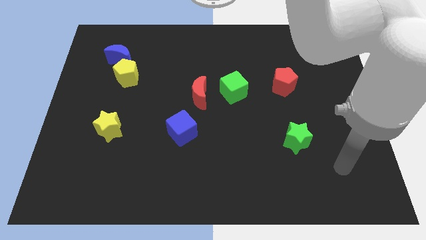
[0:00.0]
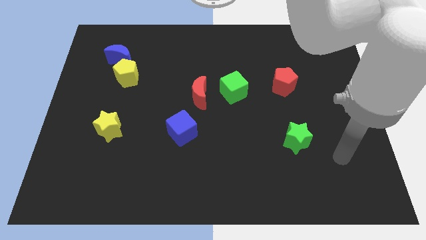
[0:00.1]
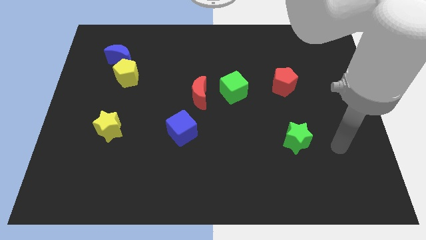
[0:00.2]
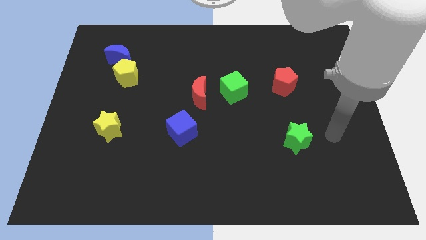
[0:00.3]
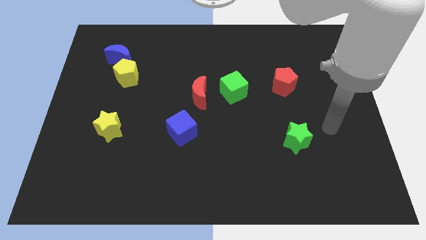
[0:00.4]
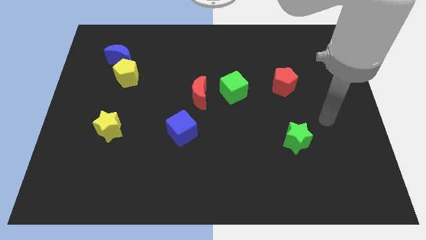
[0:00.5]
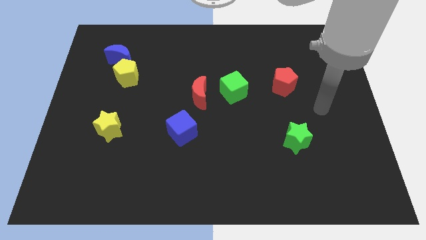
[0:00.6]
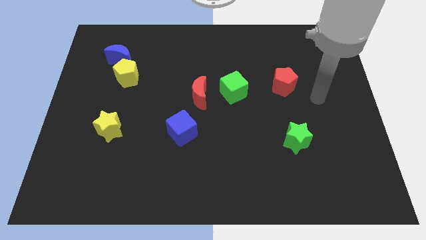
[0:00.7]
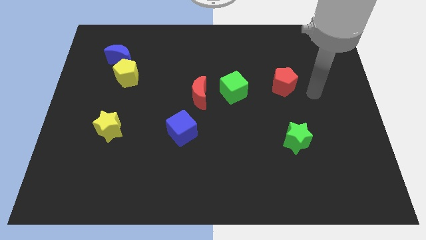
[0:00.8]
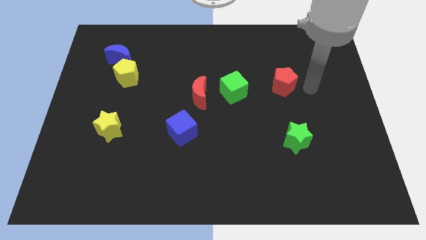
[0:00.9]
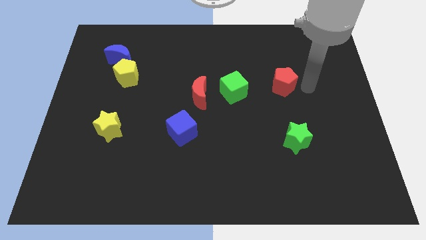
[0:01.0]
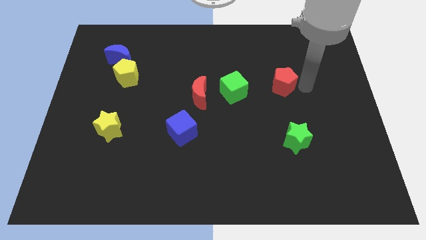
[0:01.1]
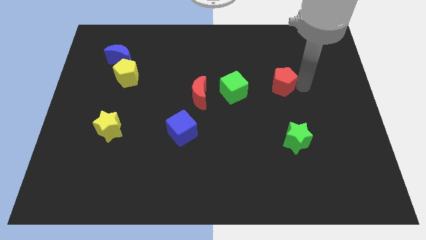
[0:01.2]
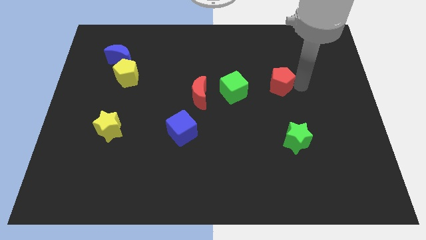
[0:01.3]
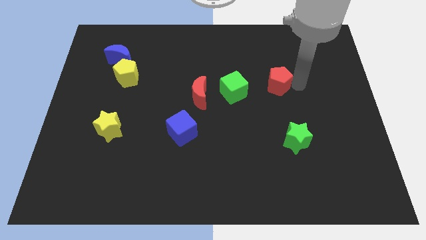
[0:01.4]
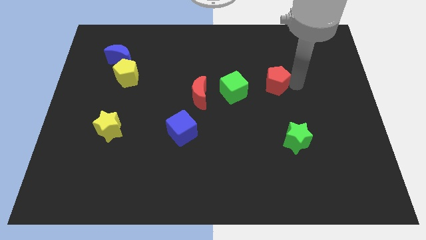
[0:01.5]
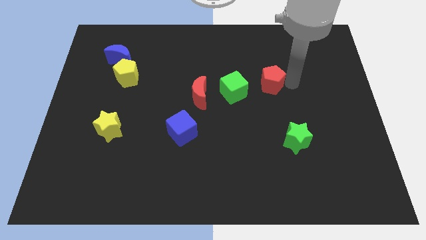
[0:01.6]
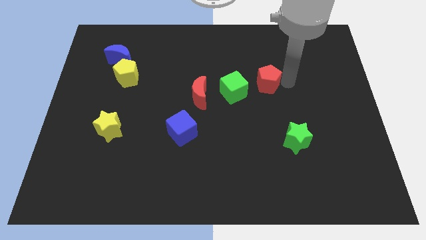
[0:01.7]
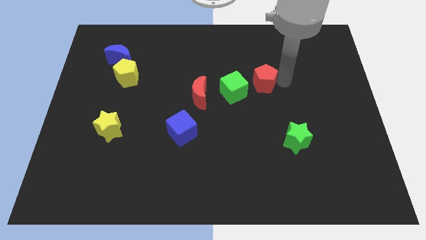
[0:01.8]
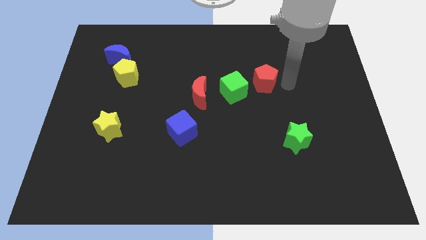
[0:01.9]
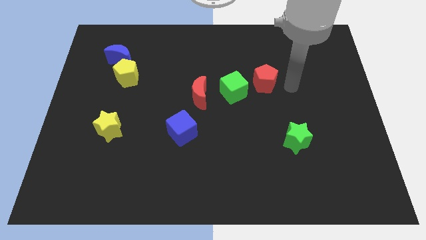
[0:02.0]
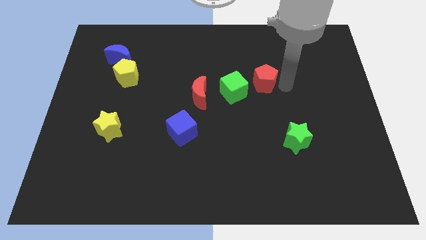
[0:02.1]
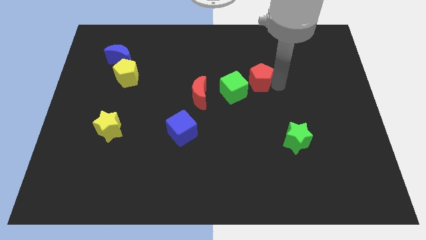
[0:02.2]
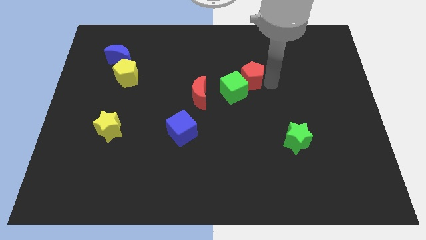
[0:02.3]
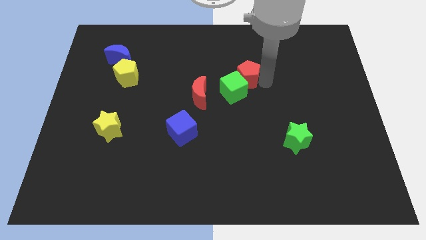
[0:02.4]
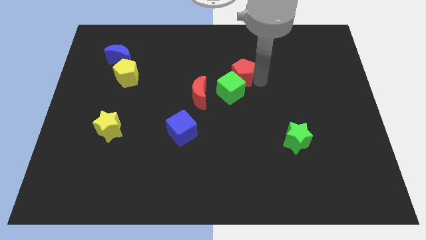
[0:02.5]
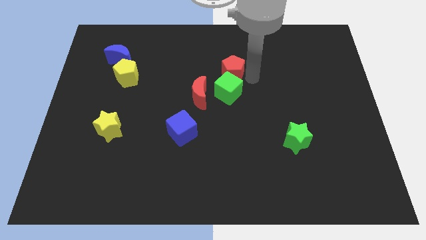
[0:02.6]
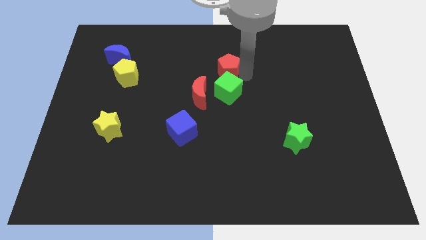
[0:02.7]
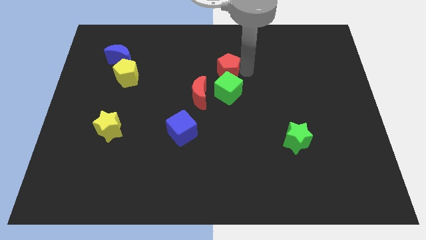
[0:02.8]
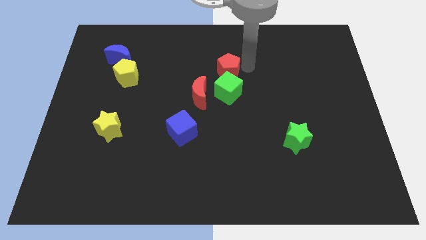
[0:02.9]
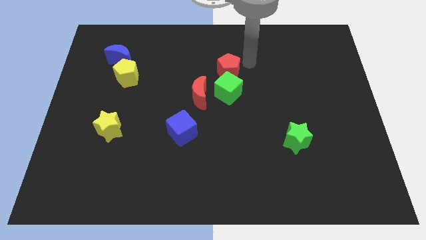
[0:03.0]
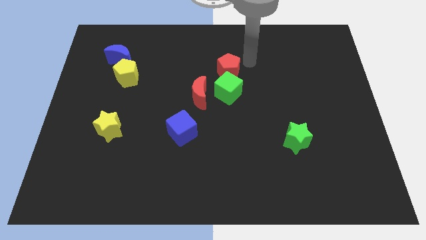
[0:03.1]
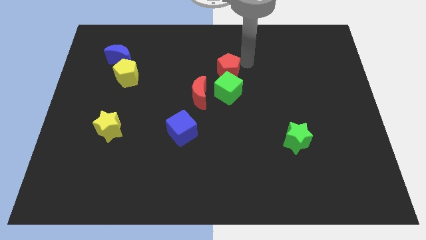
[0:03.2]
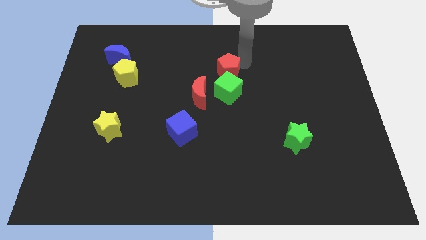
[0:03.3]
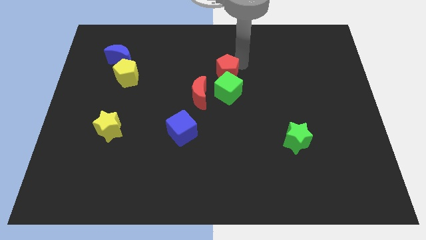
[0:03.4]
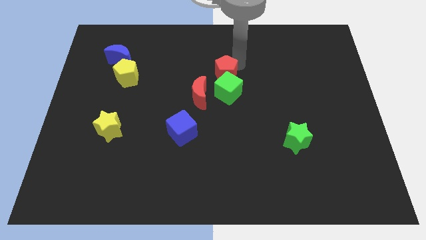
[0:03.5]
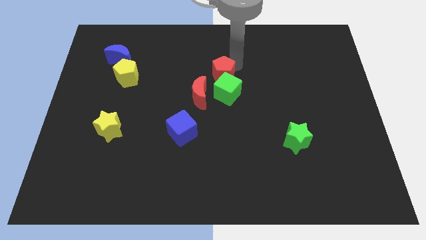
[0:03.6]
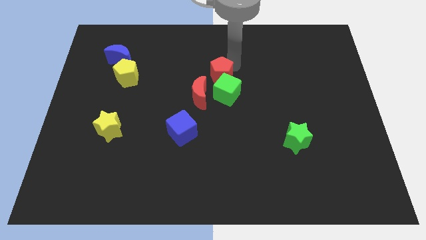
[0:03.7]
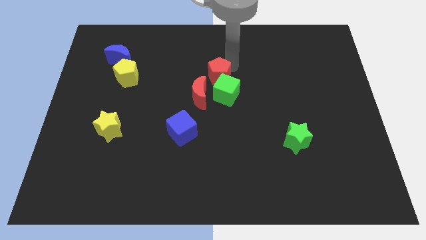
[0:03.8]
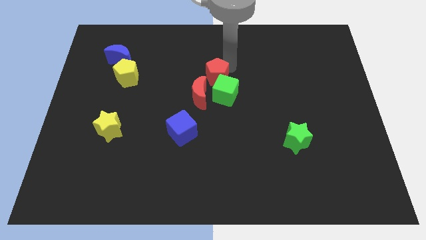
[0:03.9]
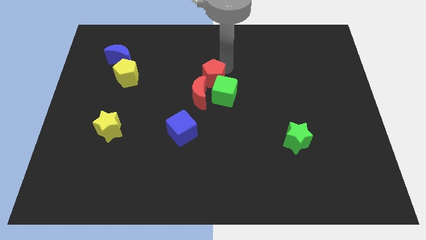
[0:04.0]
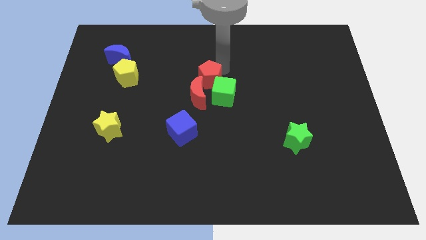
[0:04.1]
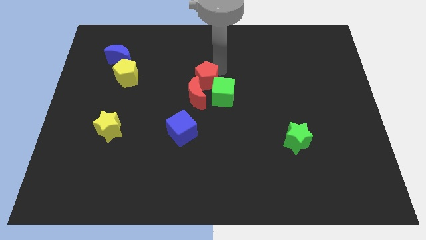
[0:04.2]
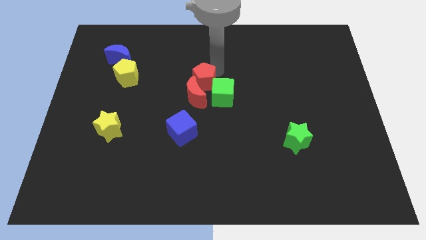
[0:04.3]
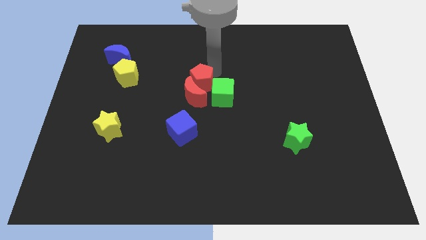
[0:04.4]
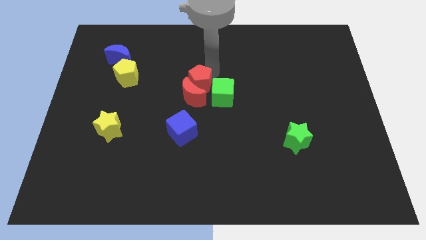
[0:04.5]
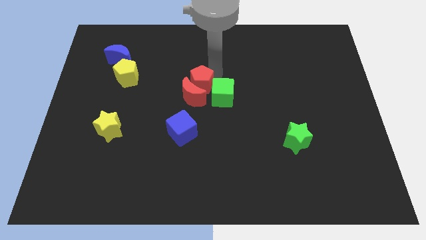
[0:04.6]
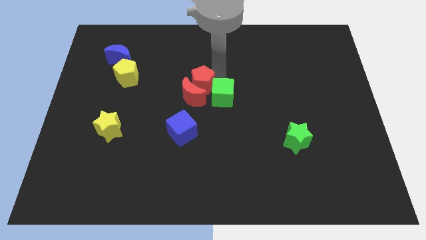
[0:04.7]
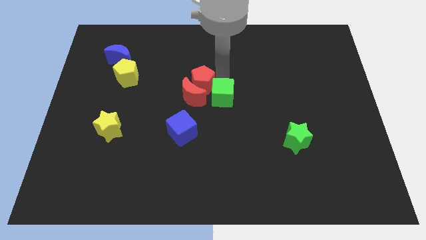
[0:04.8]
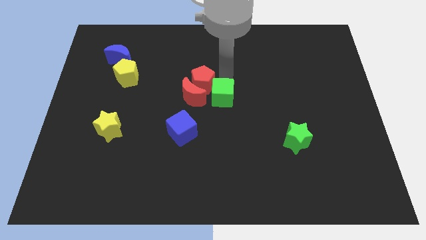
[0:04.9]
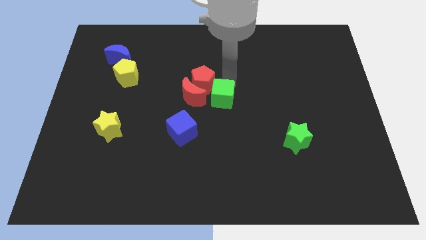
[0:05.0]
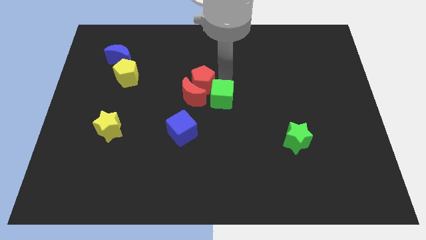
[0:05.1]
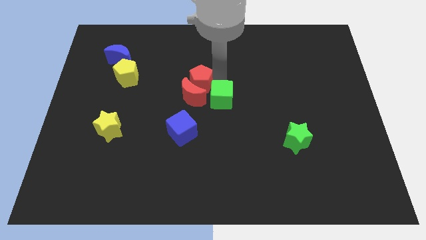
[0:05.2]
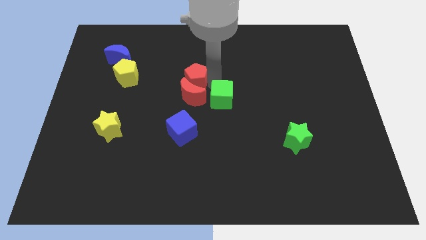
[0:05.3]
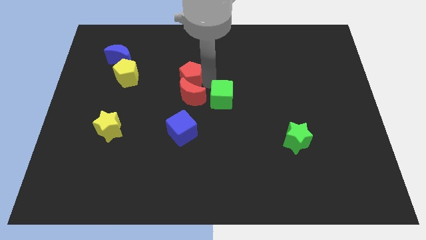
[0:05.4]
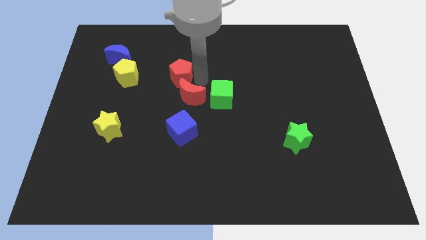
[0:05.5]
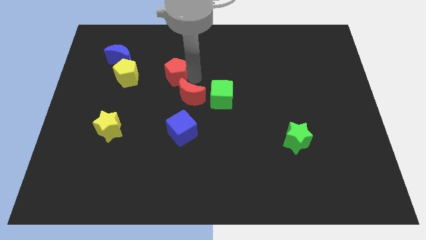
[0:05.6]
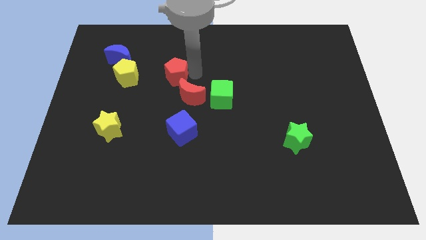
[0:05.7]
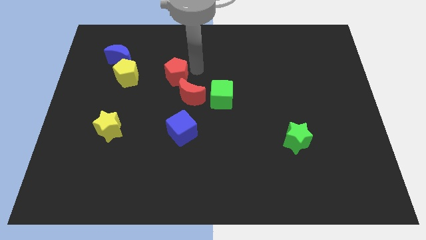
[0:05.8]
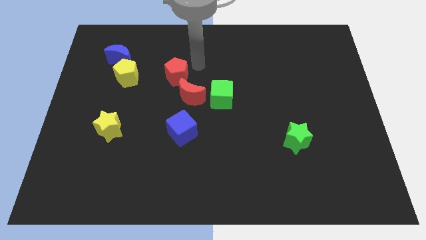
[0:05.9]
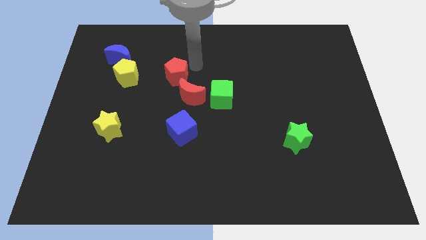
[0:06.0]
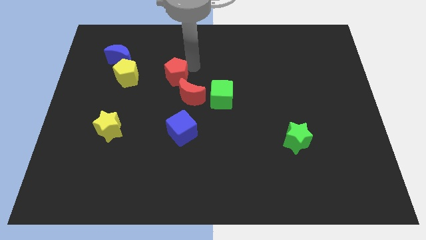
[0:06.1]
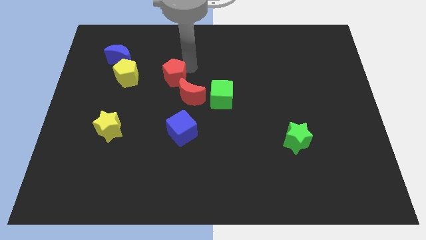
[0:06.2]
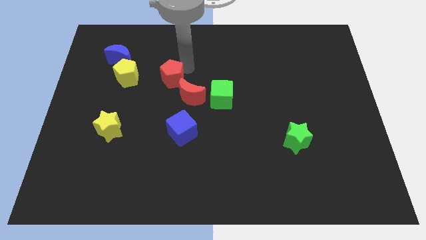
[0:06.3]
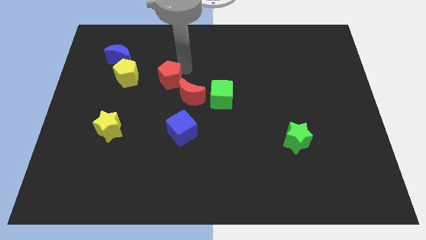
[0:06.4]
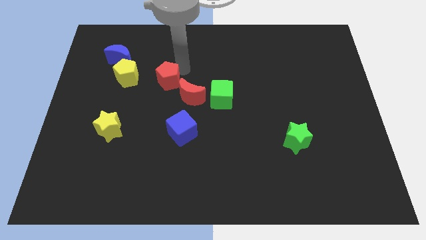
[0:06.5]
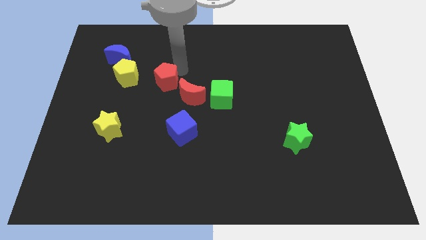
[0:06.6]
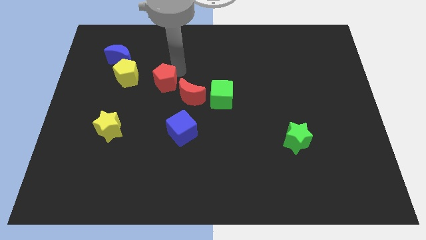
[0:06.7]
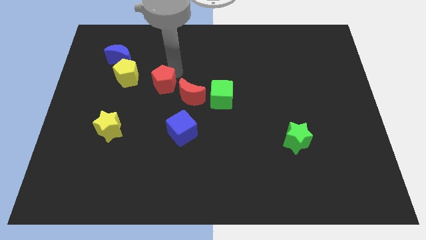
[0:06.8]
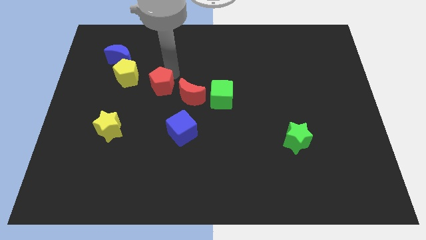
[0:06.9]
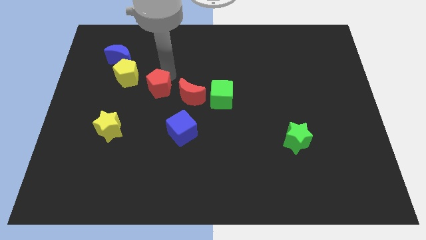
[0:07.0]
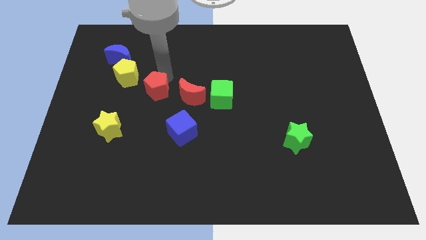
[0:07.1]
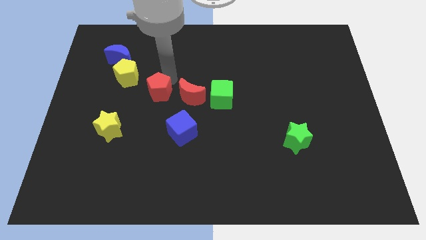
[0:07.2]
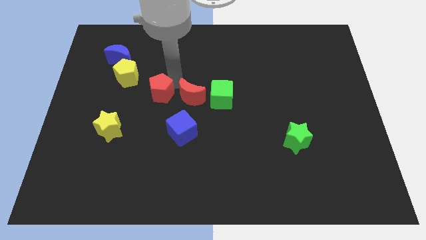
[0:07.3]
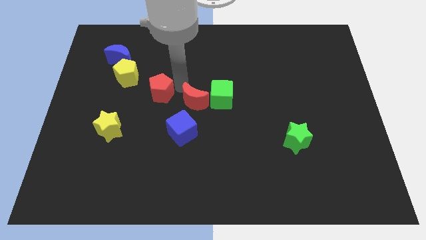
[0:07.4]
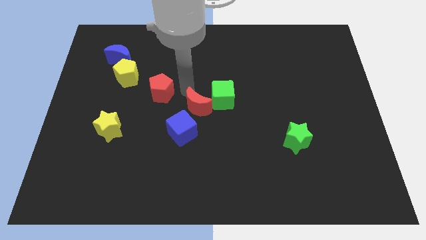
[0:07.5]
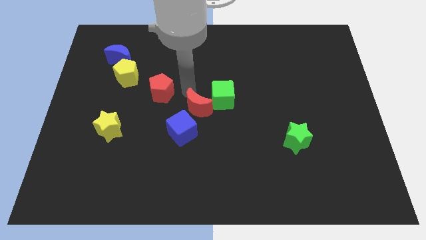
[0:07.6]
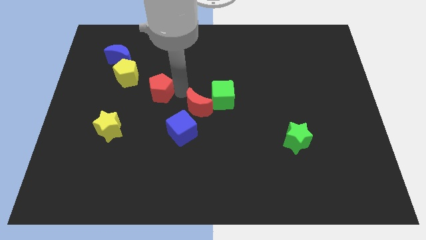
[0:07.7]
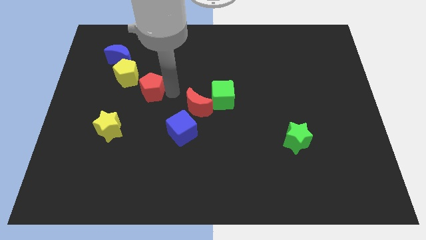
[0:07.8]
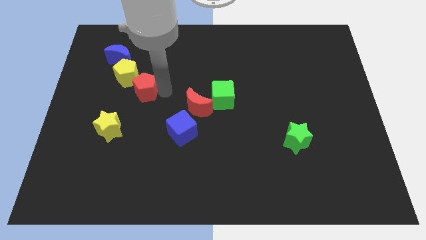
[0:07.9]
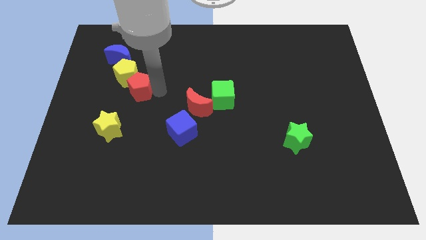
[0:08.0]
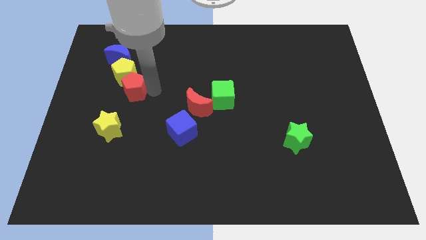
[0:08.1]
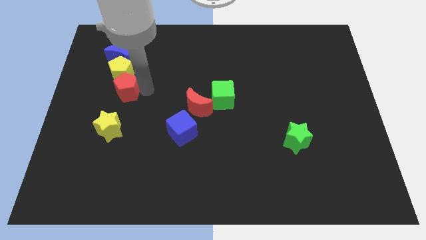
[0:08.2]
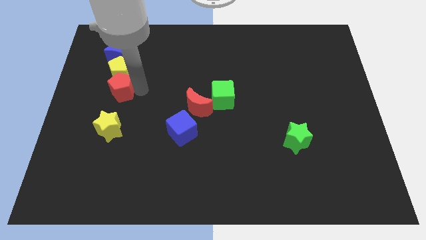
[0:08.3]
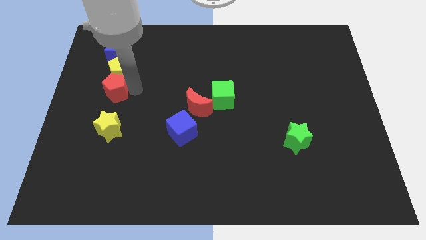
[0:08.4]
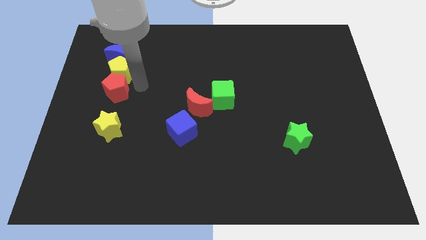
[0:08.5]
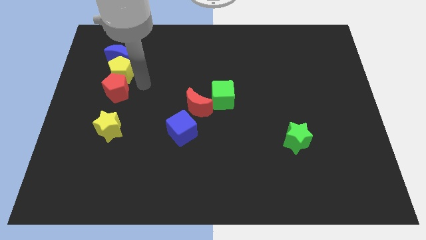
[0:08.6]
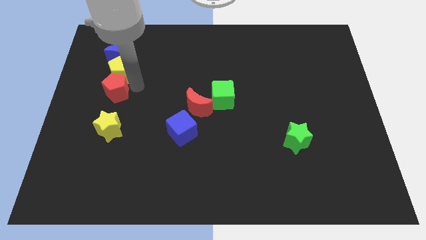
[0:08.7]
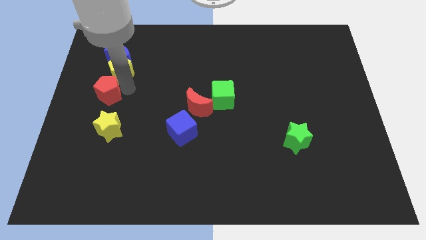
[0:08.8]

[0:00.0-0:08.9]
slide the red pentagon to the center left
